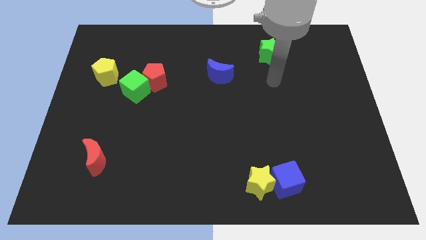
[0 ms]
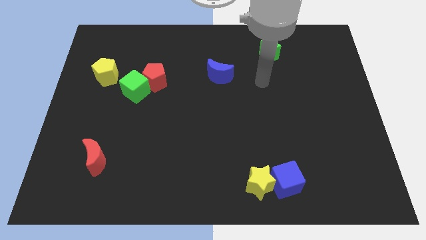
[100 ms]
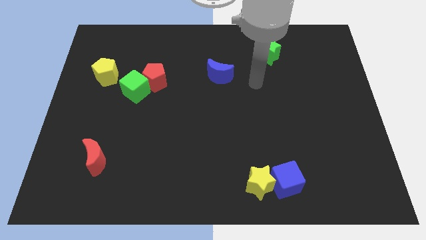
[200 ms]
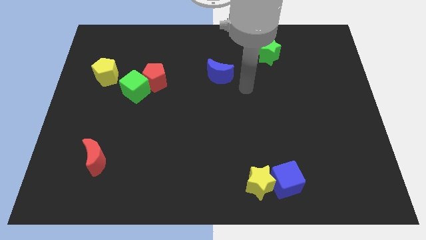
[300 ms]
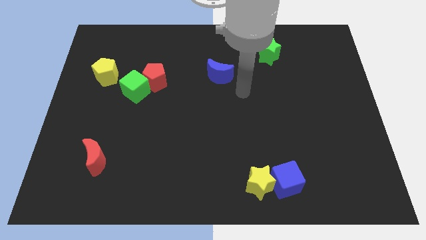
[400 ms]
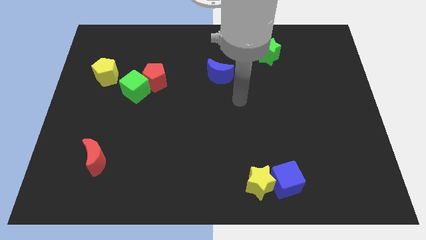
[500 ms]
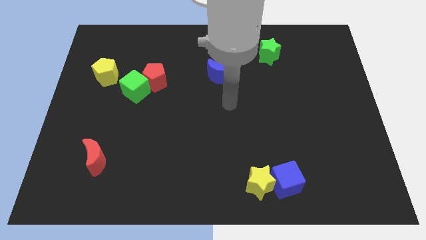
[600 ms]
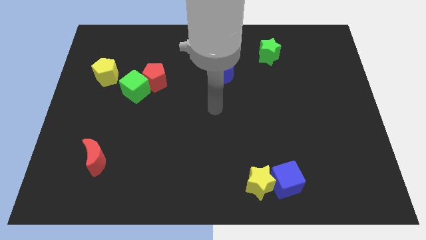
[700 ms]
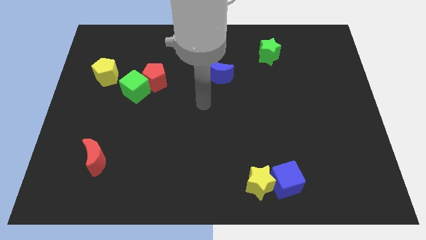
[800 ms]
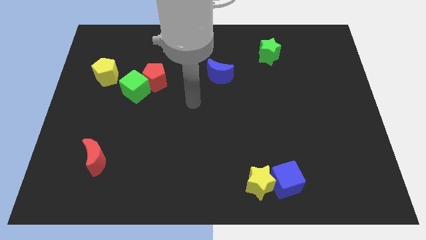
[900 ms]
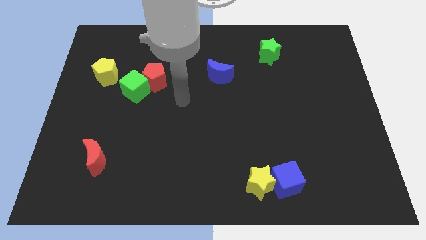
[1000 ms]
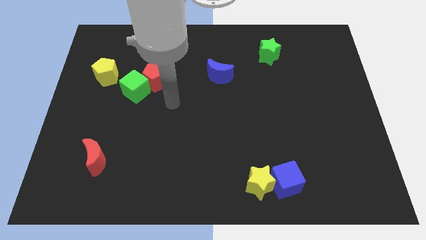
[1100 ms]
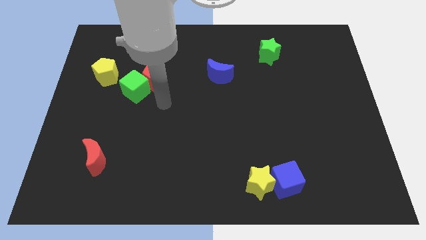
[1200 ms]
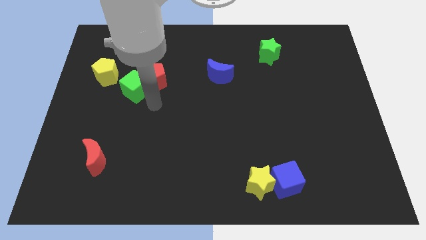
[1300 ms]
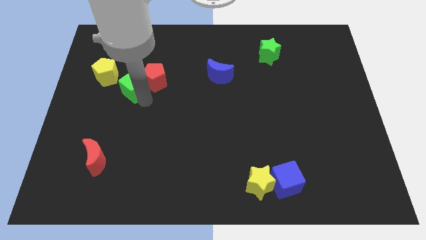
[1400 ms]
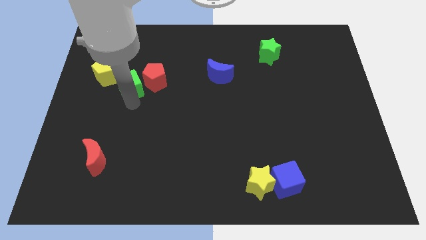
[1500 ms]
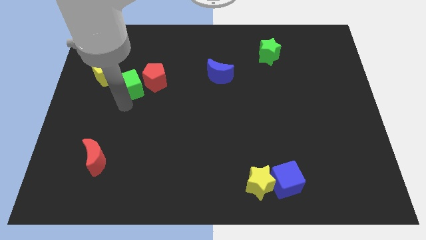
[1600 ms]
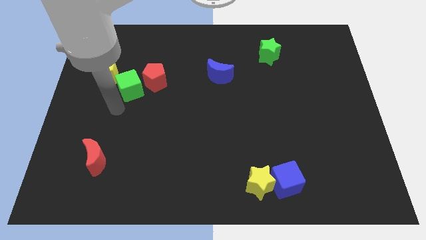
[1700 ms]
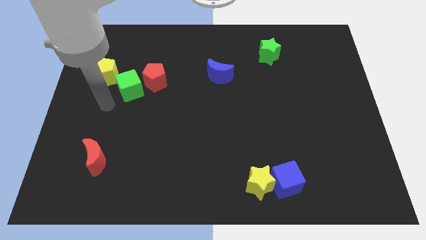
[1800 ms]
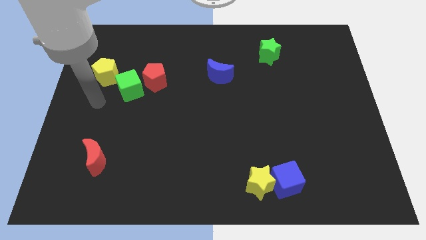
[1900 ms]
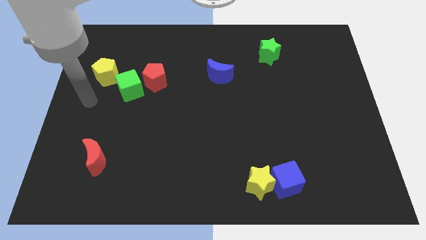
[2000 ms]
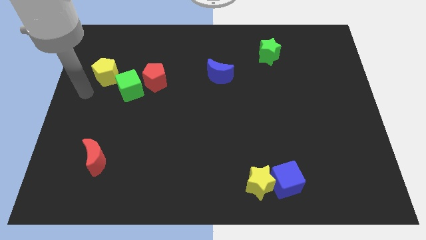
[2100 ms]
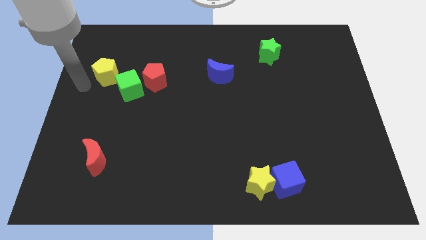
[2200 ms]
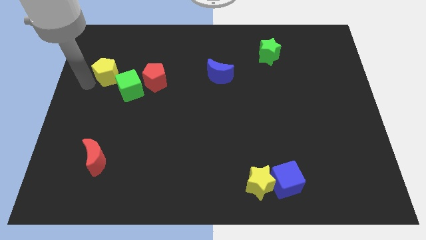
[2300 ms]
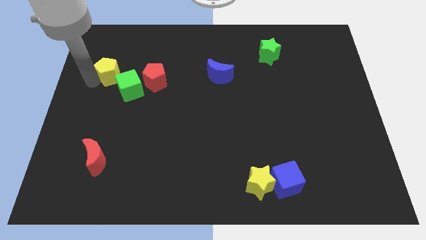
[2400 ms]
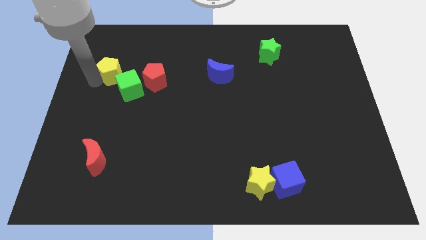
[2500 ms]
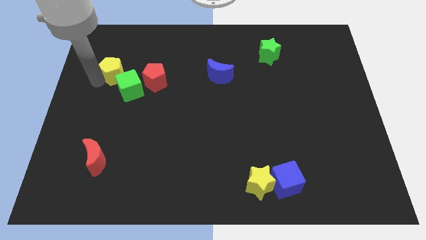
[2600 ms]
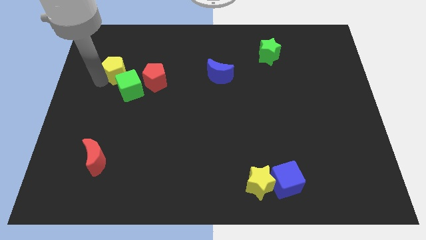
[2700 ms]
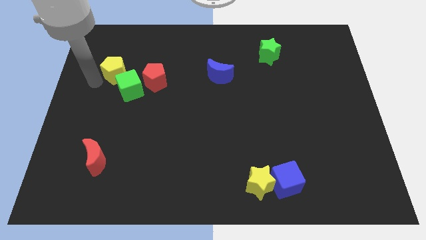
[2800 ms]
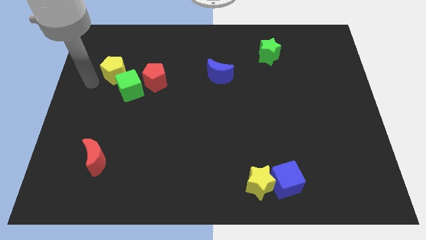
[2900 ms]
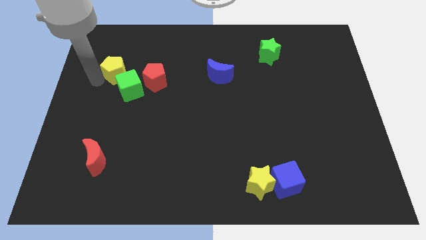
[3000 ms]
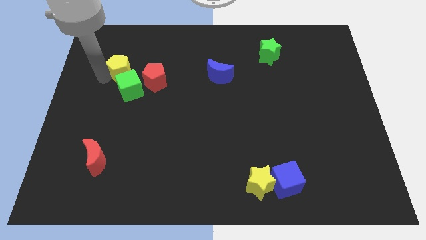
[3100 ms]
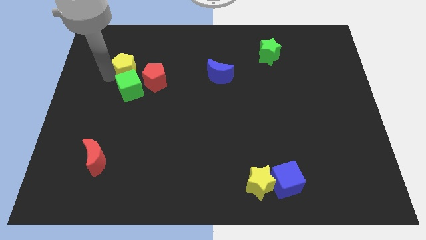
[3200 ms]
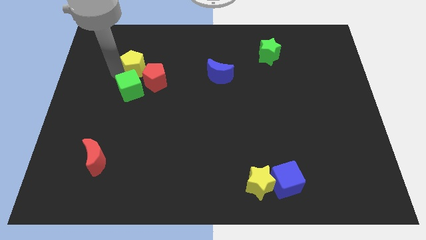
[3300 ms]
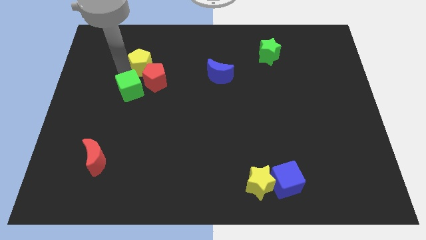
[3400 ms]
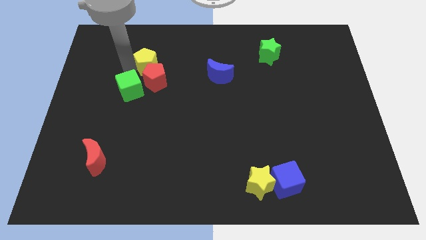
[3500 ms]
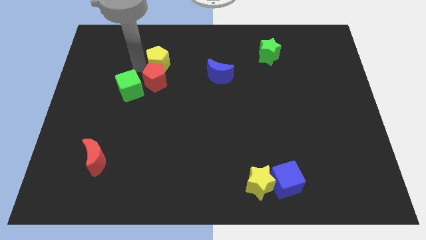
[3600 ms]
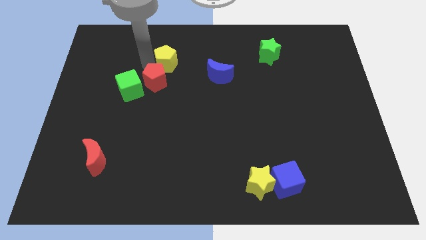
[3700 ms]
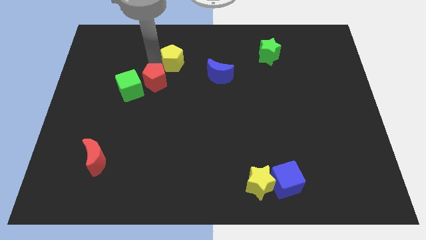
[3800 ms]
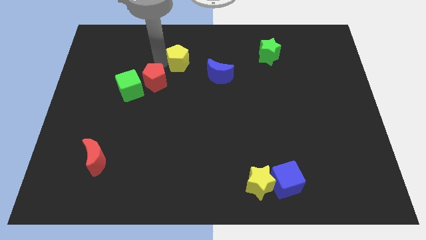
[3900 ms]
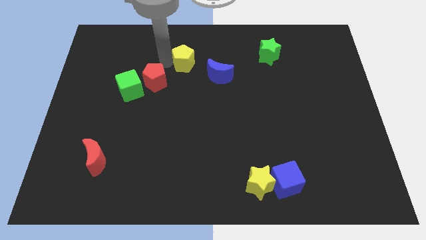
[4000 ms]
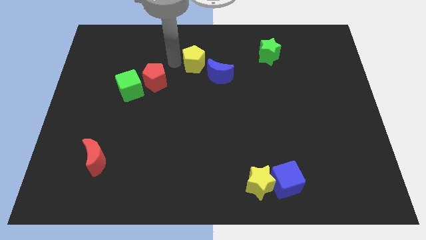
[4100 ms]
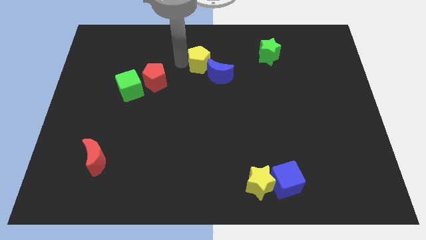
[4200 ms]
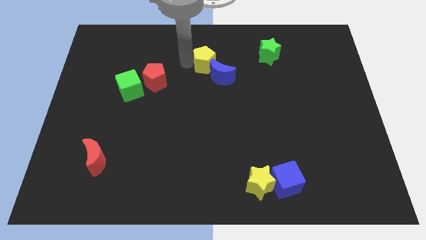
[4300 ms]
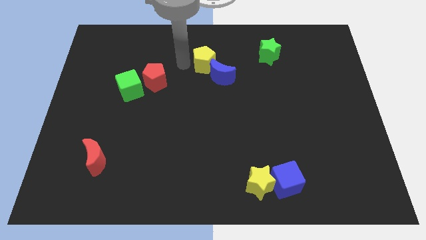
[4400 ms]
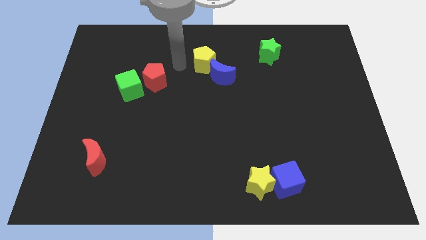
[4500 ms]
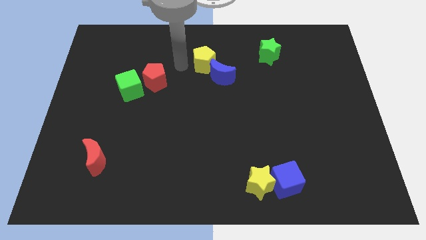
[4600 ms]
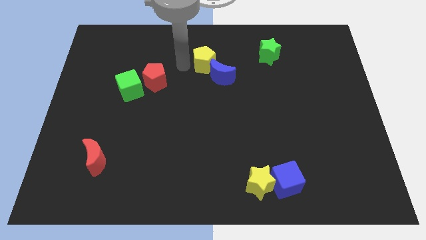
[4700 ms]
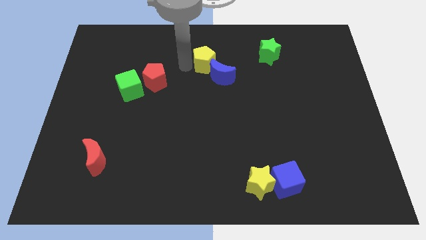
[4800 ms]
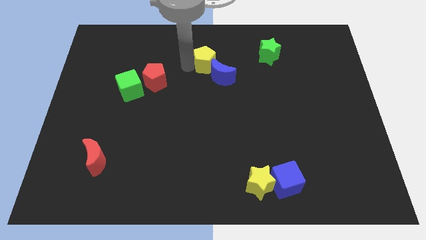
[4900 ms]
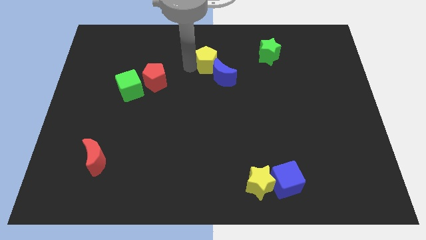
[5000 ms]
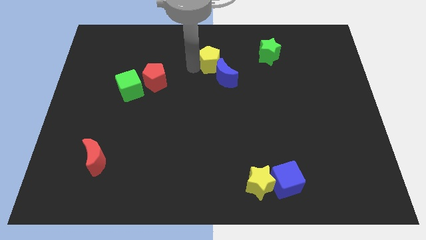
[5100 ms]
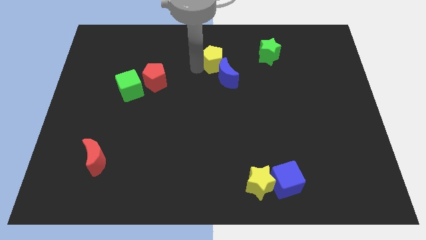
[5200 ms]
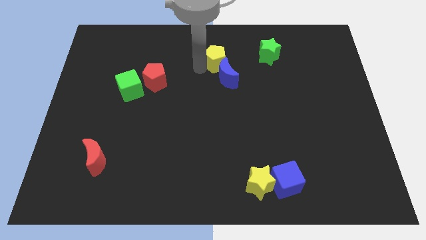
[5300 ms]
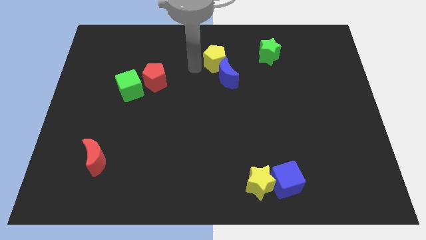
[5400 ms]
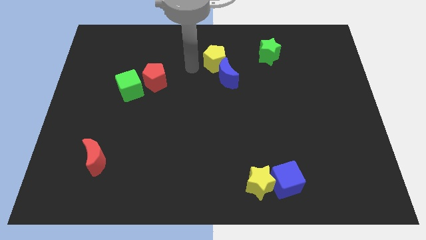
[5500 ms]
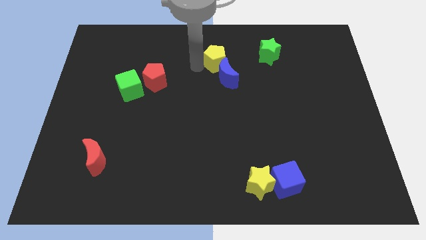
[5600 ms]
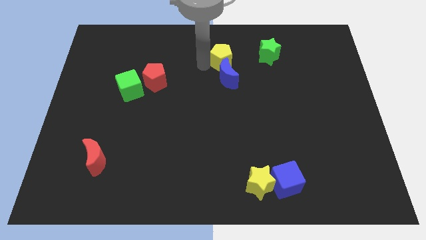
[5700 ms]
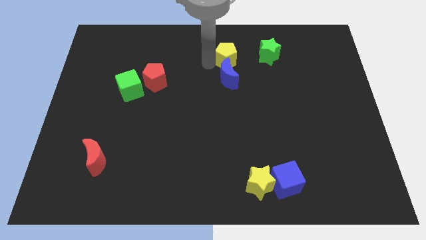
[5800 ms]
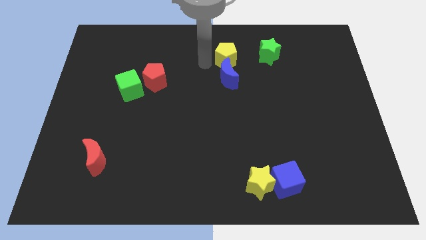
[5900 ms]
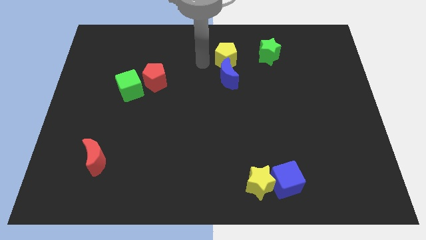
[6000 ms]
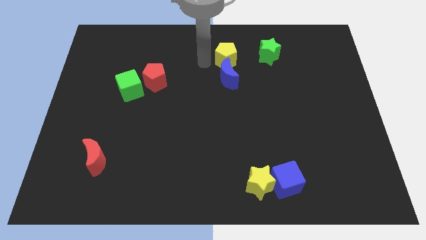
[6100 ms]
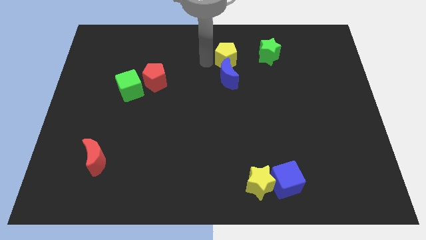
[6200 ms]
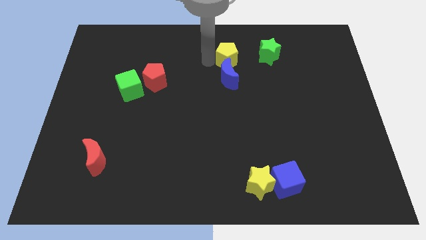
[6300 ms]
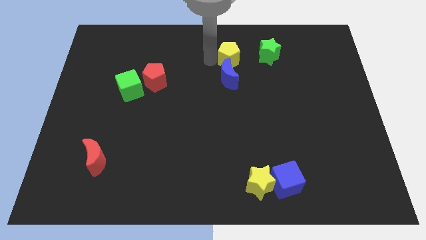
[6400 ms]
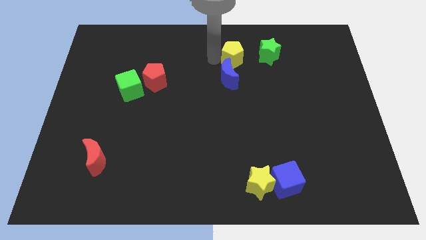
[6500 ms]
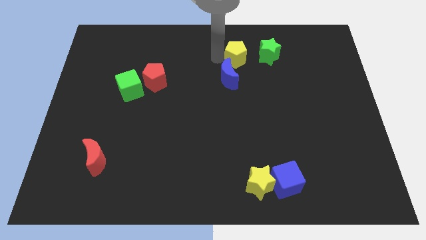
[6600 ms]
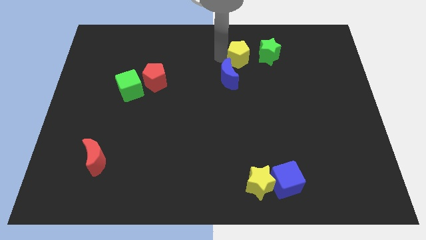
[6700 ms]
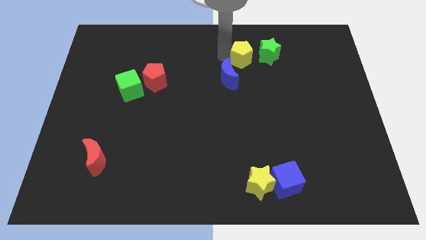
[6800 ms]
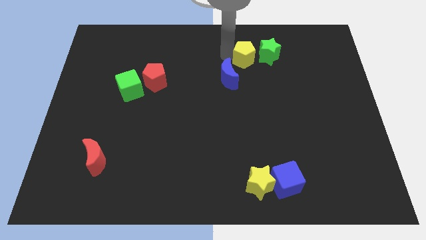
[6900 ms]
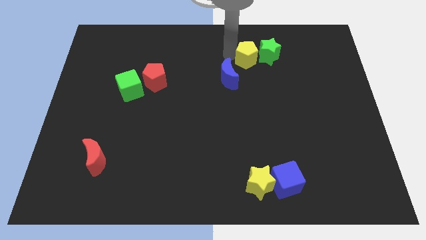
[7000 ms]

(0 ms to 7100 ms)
move the yellow pentagon to the green star
